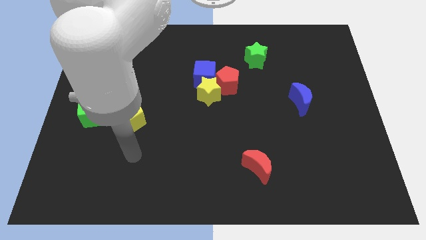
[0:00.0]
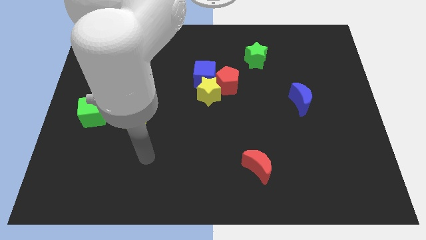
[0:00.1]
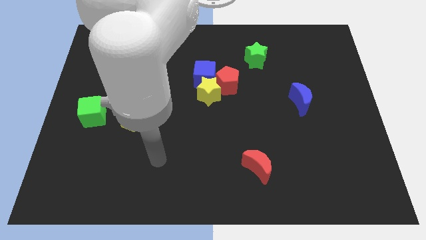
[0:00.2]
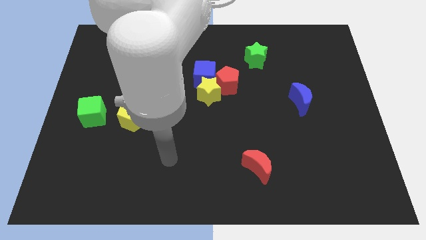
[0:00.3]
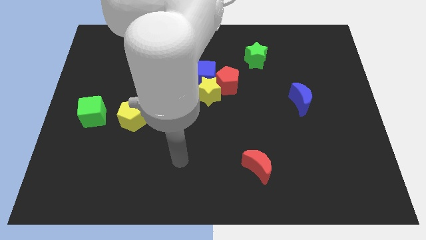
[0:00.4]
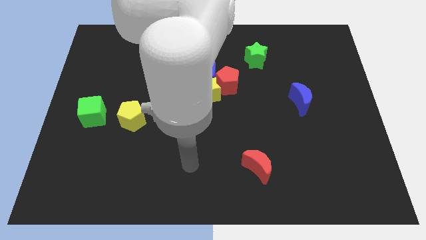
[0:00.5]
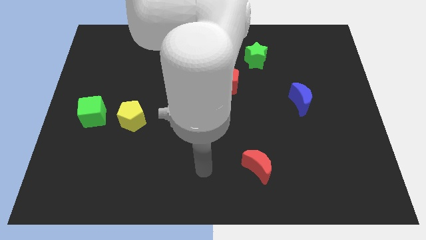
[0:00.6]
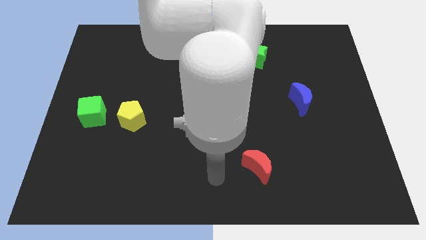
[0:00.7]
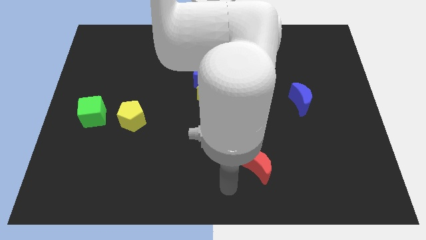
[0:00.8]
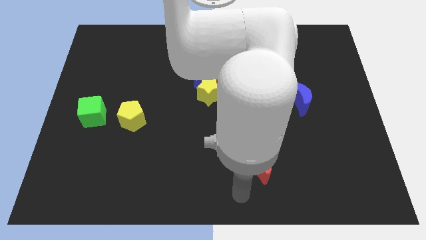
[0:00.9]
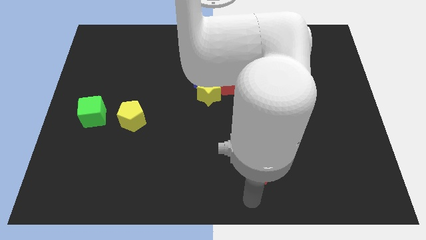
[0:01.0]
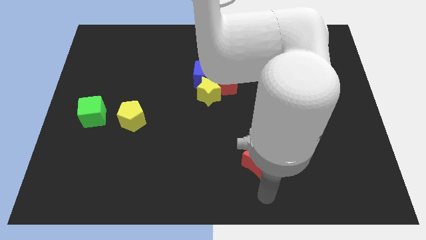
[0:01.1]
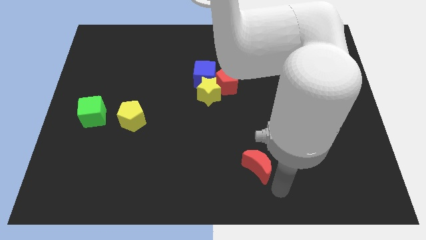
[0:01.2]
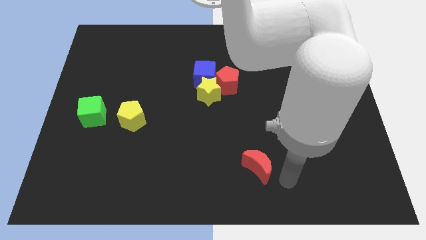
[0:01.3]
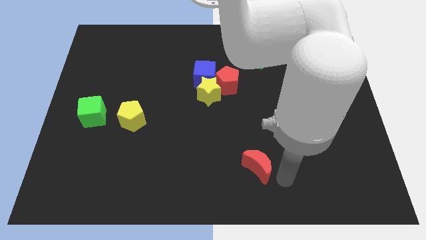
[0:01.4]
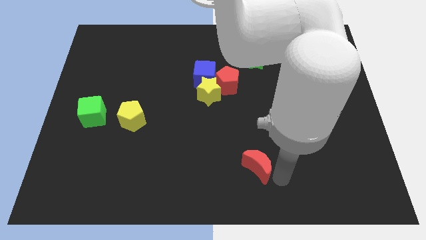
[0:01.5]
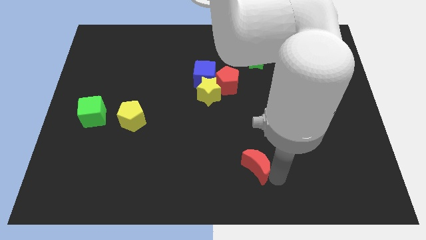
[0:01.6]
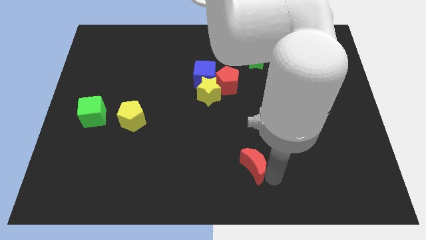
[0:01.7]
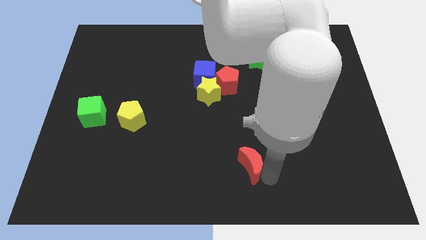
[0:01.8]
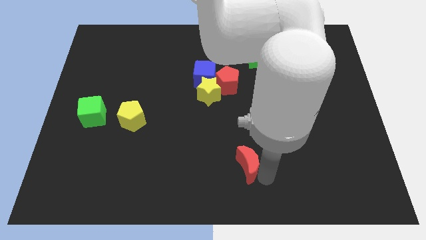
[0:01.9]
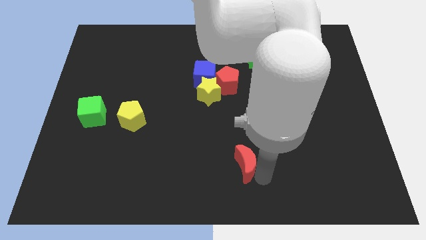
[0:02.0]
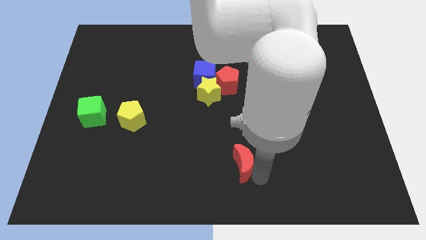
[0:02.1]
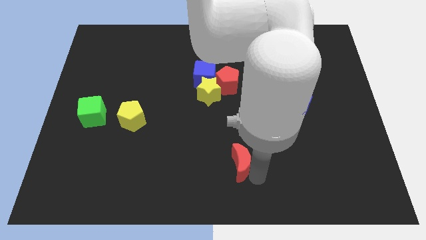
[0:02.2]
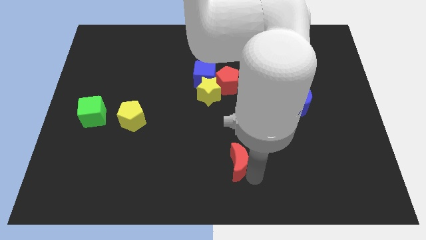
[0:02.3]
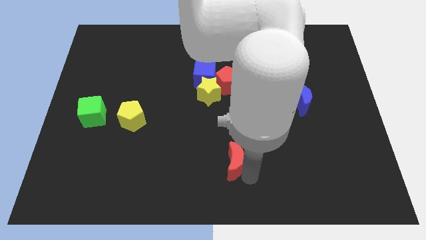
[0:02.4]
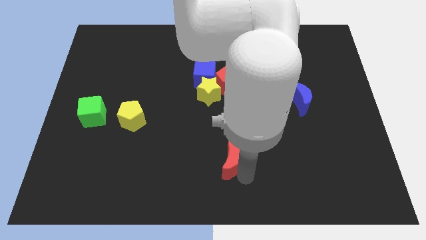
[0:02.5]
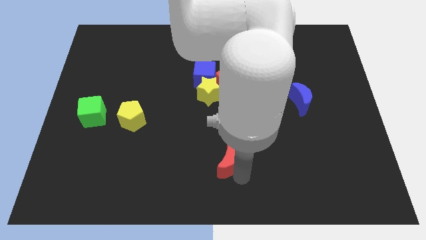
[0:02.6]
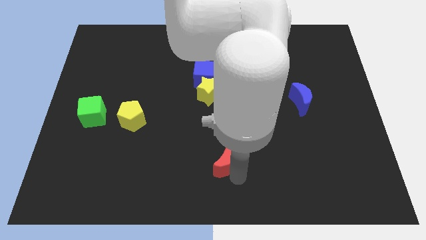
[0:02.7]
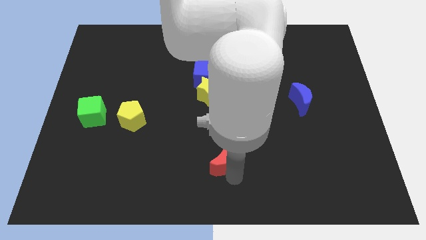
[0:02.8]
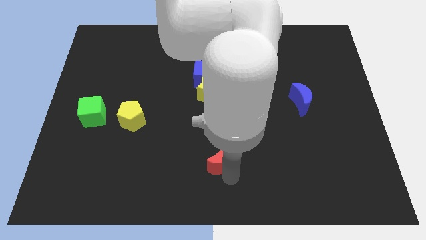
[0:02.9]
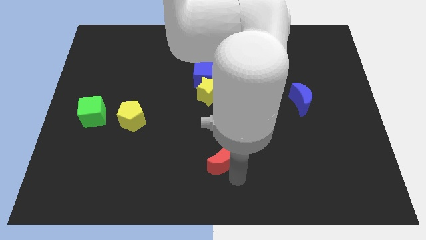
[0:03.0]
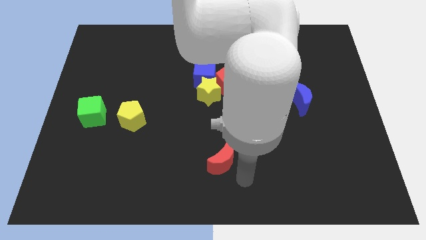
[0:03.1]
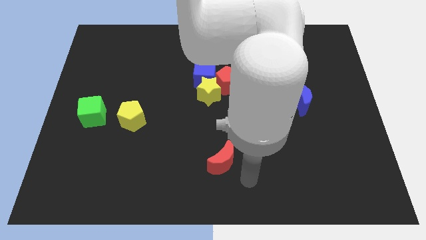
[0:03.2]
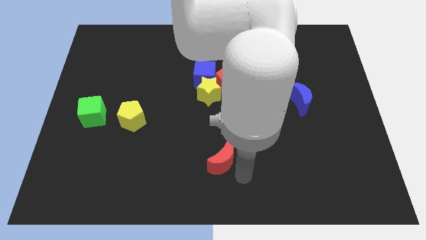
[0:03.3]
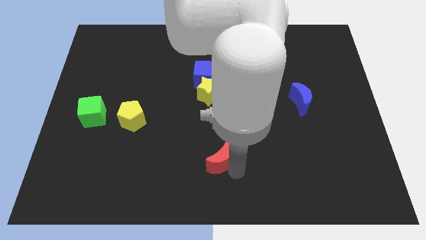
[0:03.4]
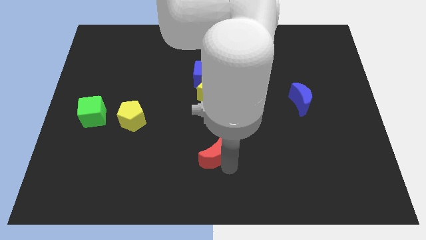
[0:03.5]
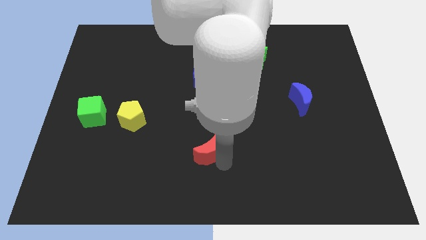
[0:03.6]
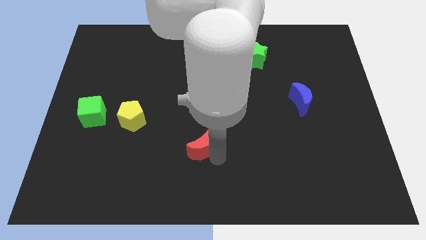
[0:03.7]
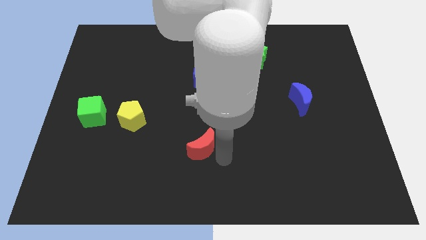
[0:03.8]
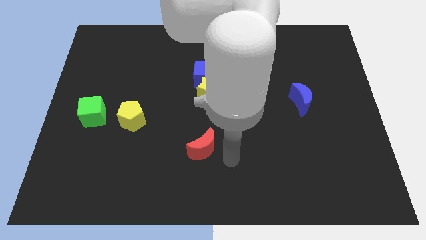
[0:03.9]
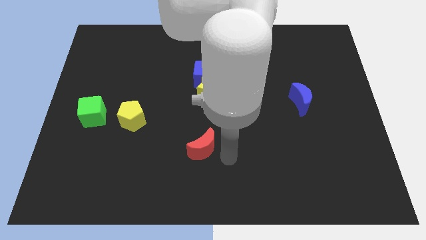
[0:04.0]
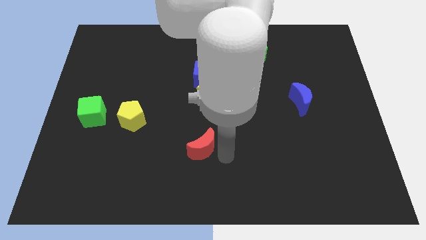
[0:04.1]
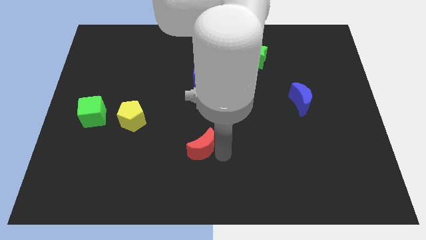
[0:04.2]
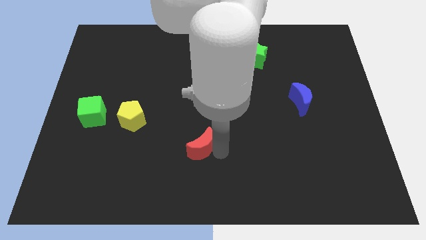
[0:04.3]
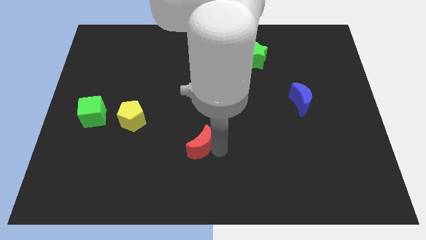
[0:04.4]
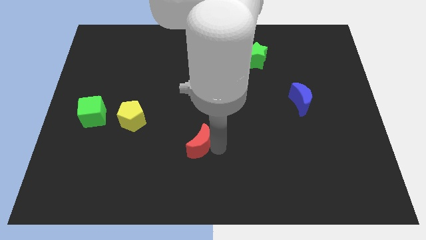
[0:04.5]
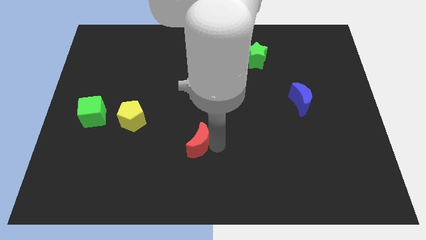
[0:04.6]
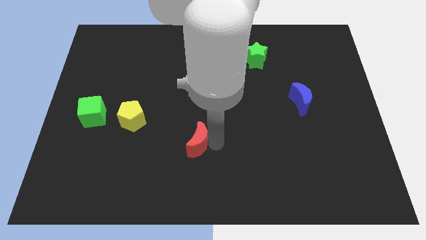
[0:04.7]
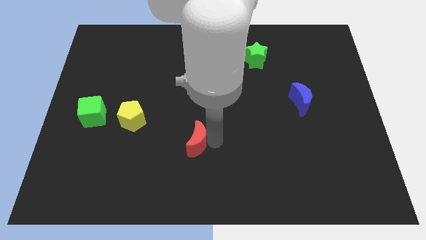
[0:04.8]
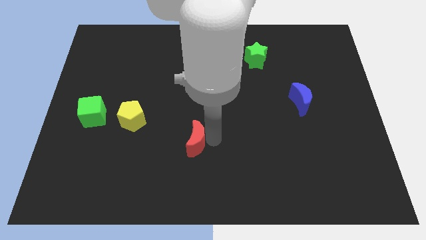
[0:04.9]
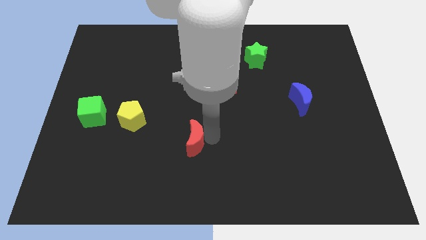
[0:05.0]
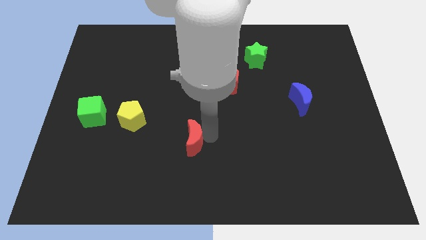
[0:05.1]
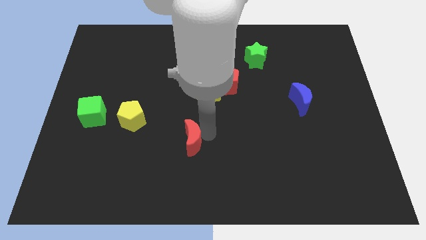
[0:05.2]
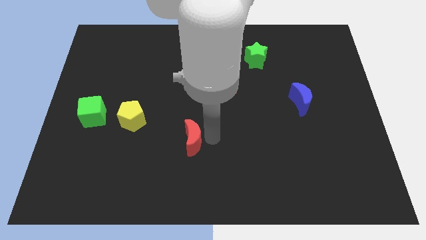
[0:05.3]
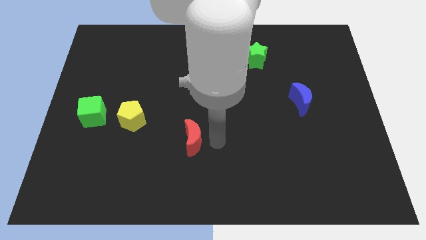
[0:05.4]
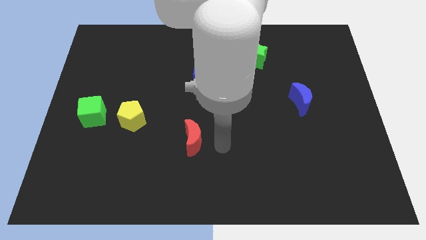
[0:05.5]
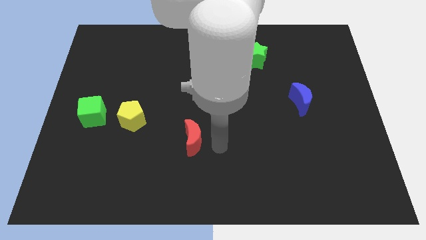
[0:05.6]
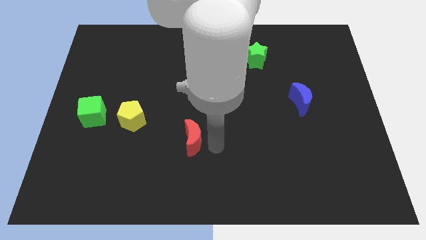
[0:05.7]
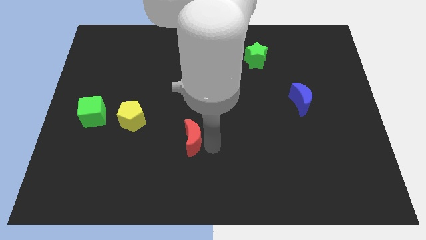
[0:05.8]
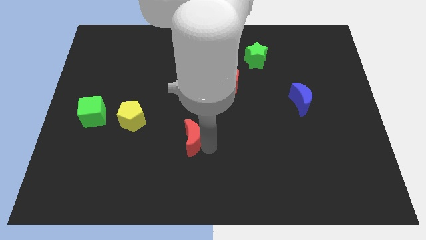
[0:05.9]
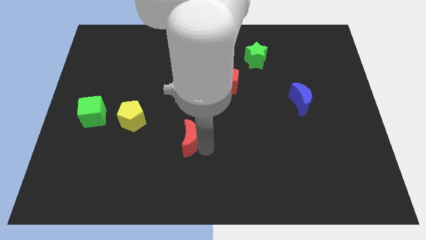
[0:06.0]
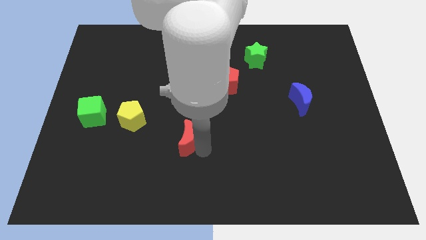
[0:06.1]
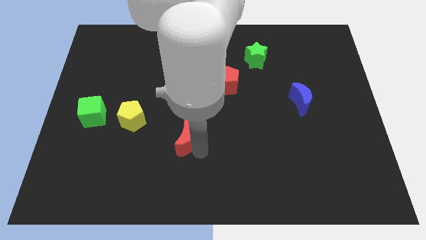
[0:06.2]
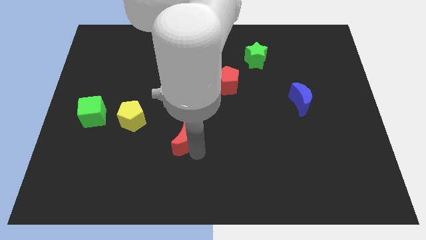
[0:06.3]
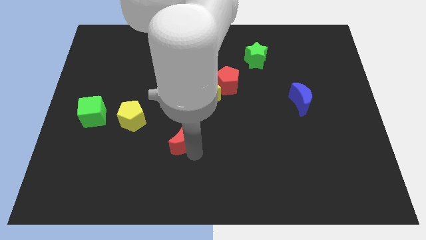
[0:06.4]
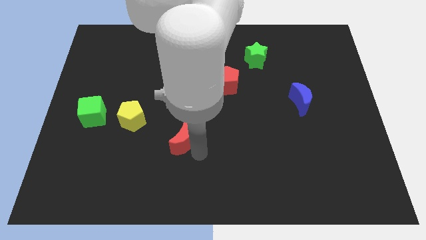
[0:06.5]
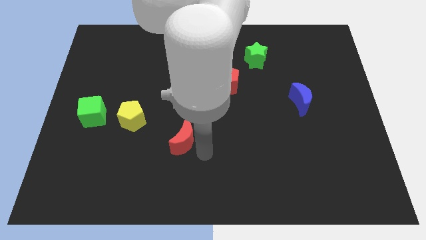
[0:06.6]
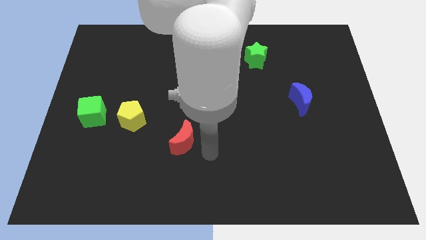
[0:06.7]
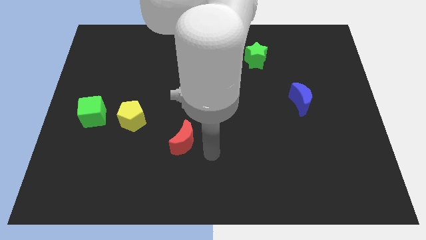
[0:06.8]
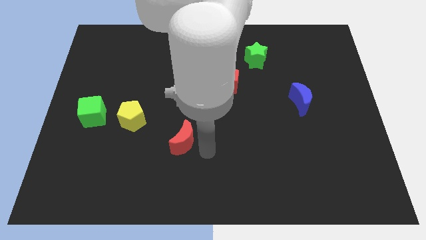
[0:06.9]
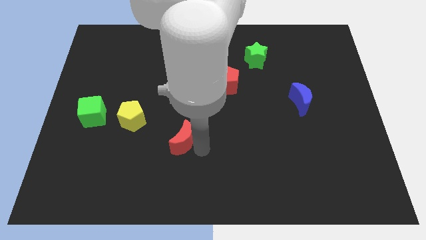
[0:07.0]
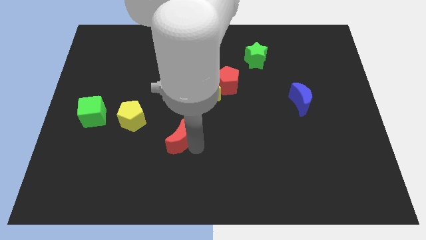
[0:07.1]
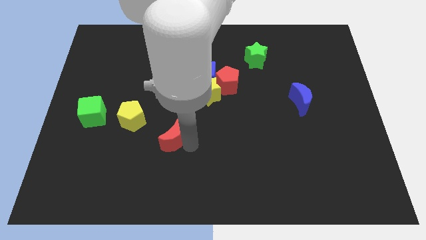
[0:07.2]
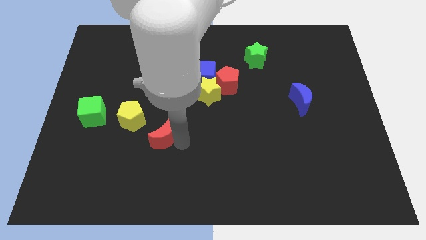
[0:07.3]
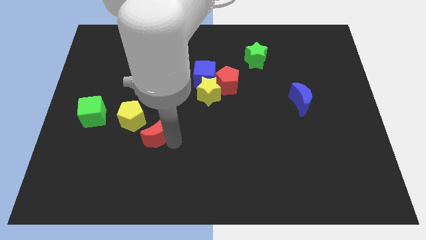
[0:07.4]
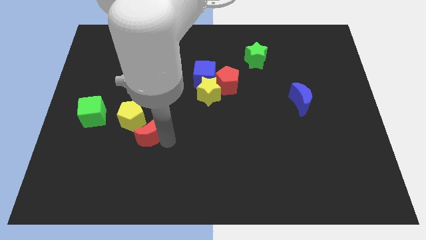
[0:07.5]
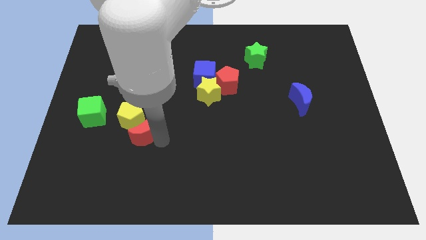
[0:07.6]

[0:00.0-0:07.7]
put the red moon next to the yellow pentagon

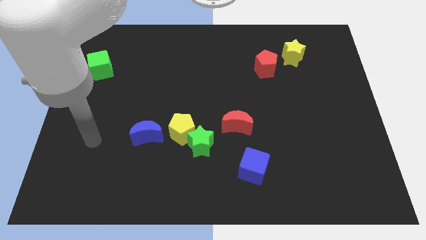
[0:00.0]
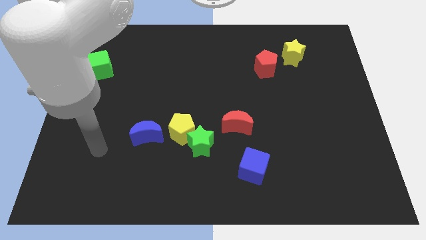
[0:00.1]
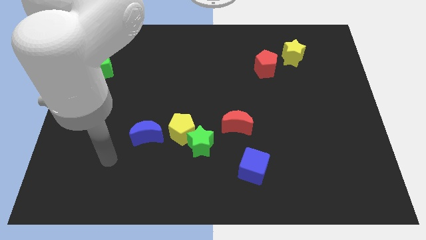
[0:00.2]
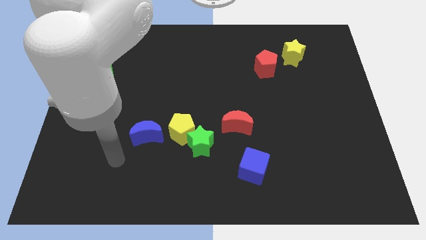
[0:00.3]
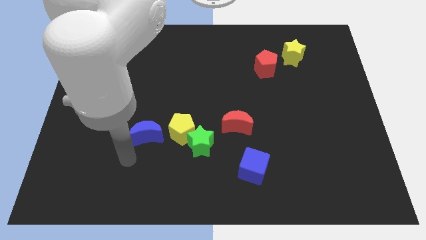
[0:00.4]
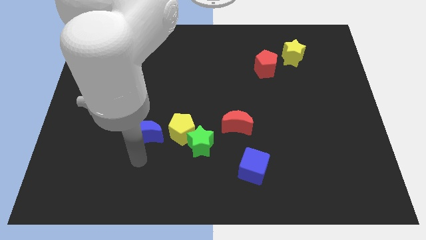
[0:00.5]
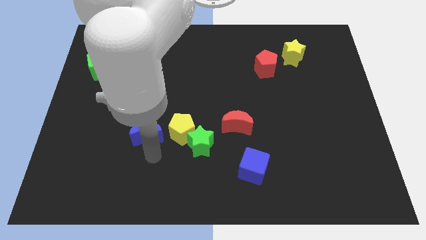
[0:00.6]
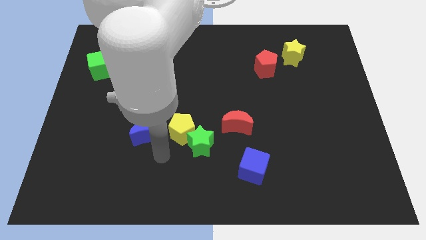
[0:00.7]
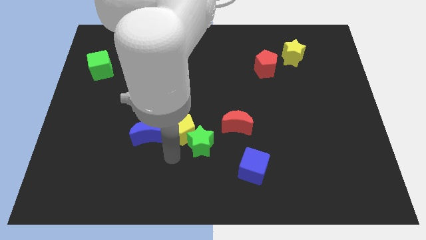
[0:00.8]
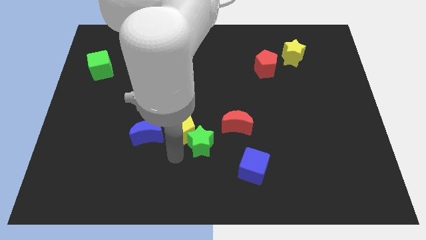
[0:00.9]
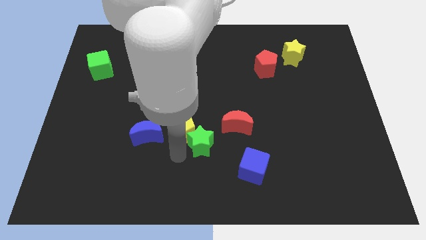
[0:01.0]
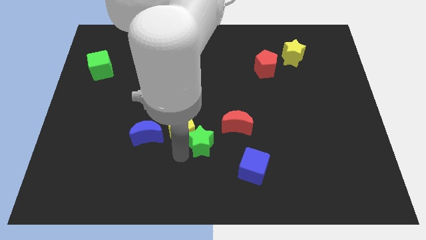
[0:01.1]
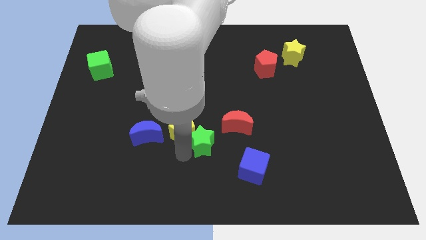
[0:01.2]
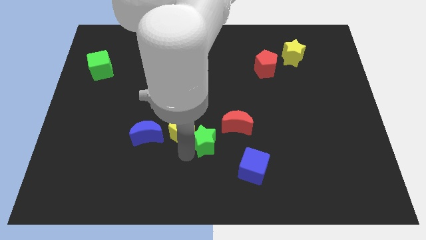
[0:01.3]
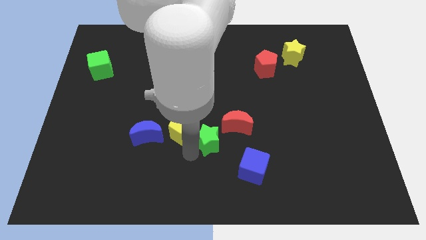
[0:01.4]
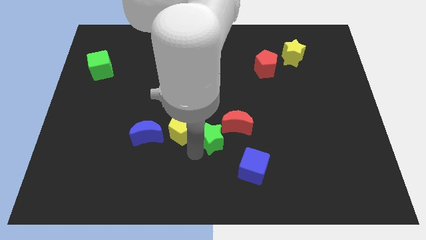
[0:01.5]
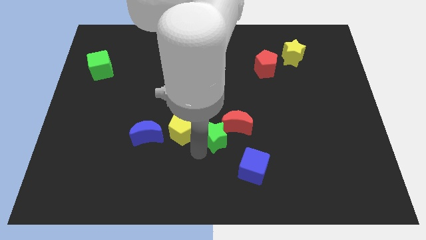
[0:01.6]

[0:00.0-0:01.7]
move the green star close to the red moon
